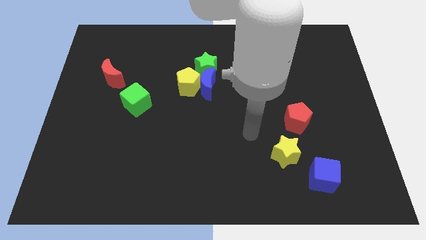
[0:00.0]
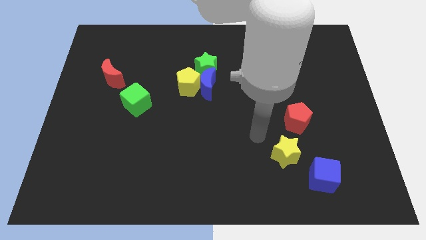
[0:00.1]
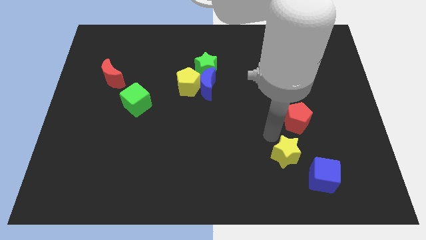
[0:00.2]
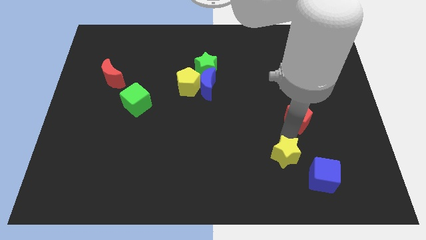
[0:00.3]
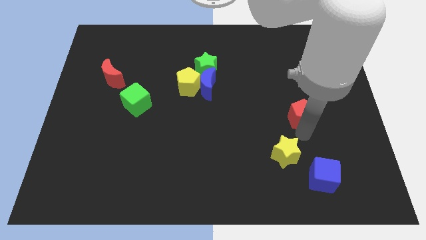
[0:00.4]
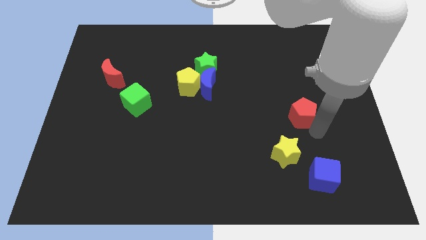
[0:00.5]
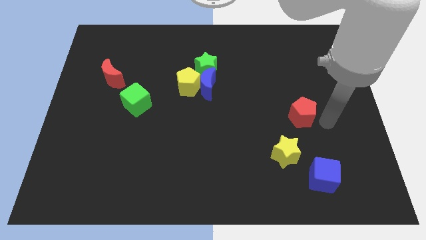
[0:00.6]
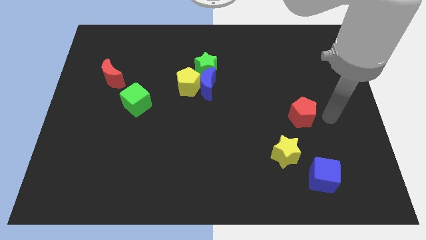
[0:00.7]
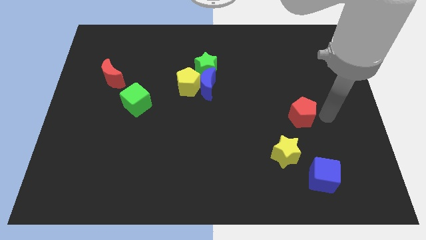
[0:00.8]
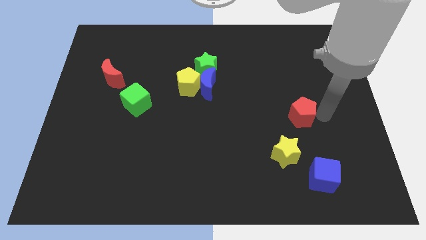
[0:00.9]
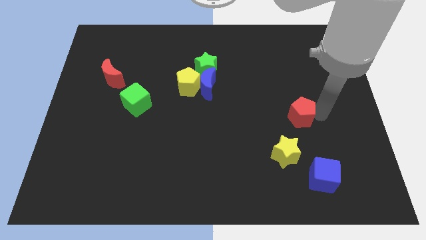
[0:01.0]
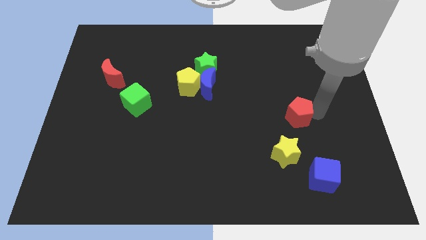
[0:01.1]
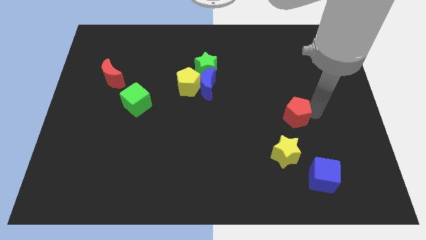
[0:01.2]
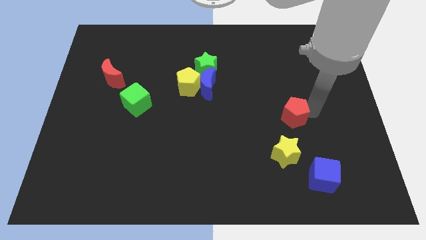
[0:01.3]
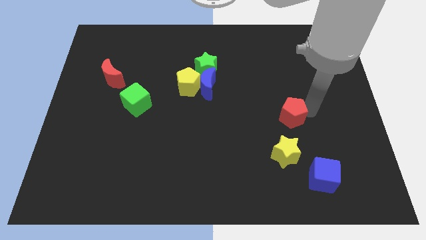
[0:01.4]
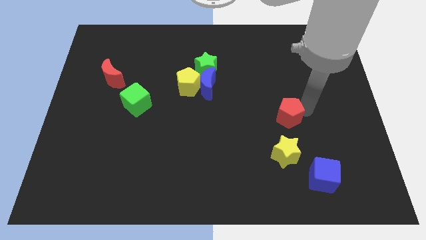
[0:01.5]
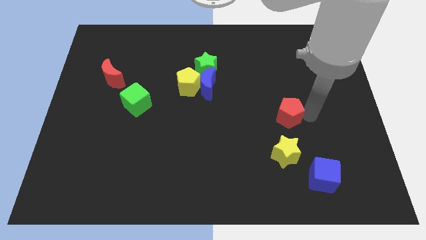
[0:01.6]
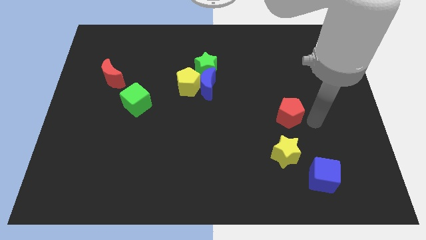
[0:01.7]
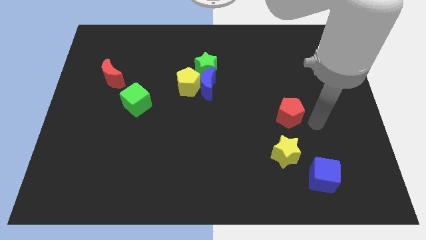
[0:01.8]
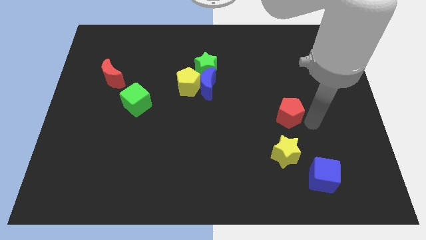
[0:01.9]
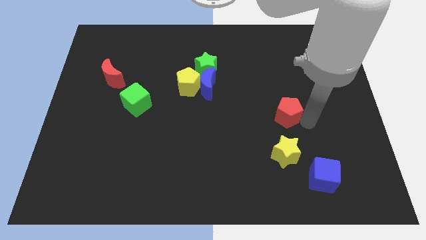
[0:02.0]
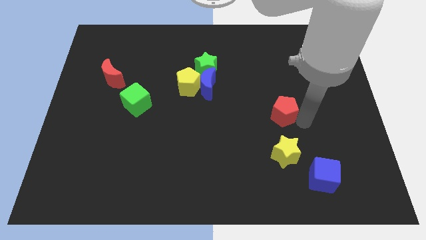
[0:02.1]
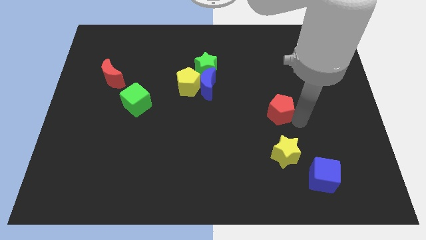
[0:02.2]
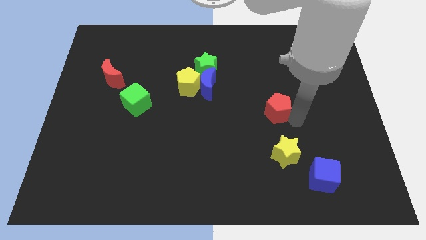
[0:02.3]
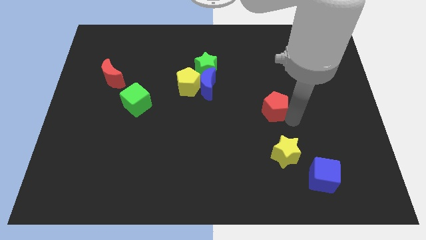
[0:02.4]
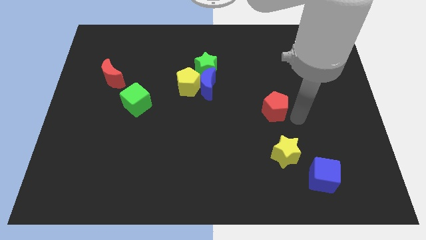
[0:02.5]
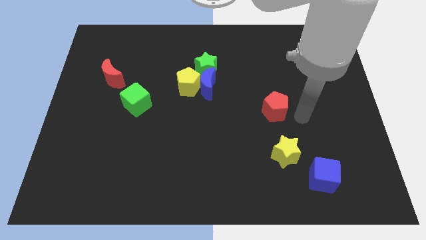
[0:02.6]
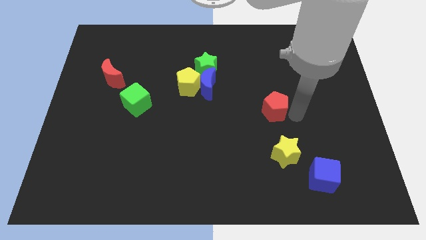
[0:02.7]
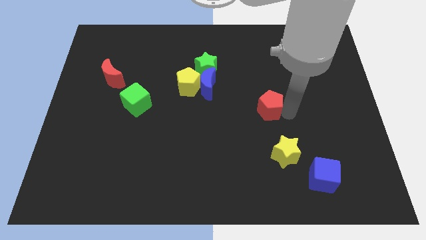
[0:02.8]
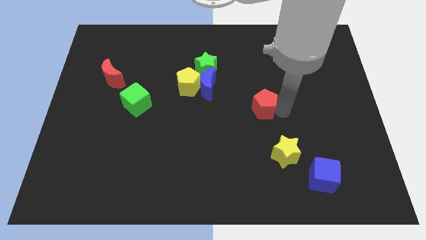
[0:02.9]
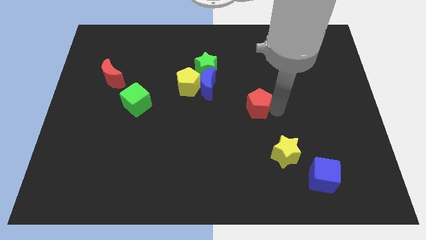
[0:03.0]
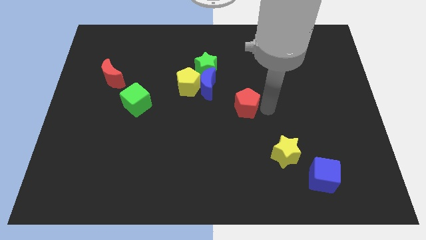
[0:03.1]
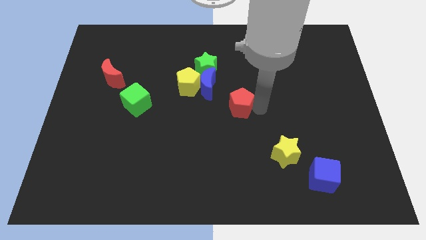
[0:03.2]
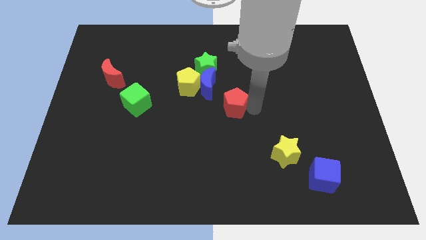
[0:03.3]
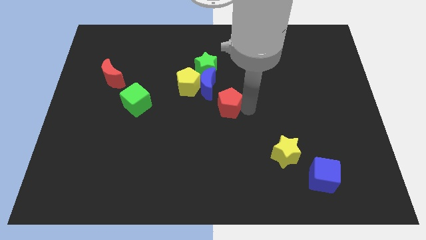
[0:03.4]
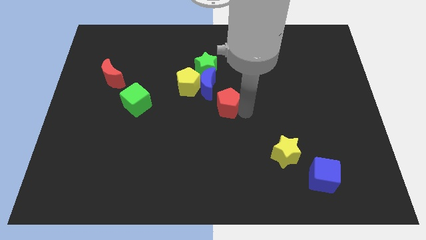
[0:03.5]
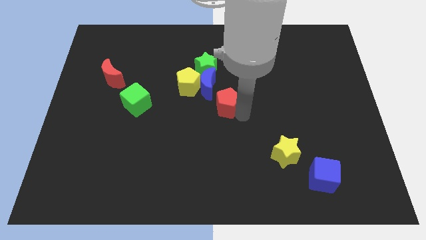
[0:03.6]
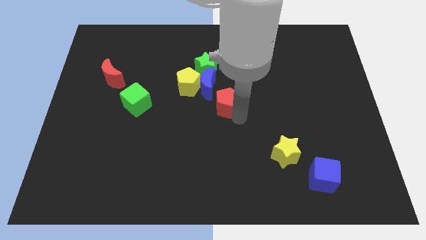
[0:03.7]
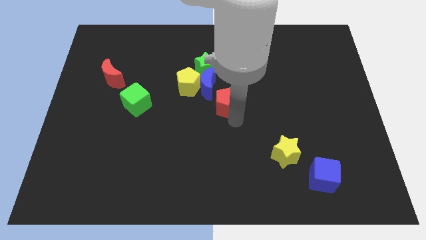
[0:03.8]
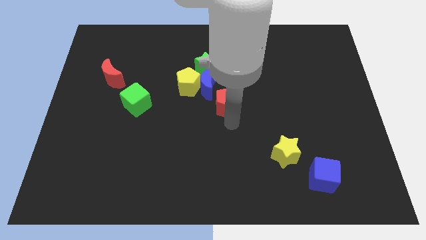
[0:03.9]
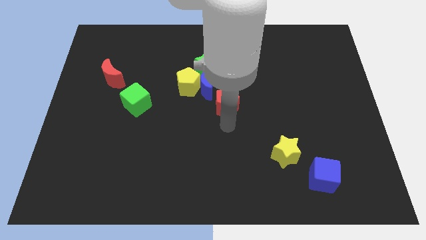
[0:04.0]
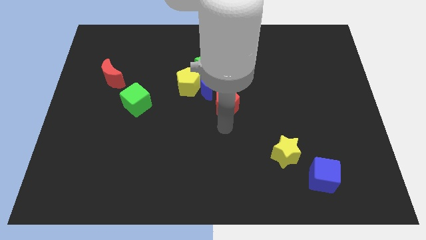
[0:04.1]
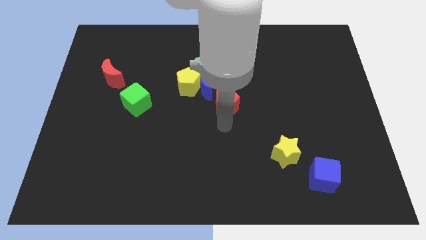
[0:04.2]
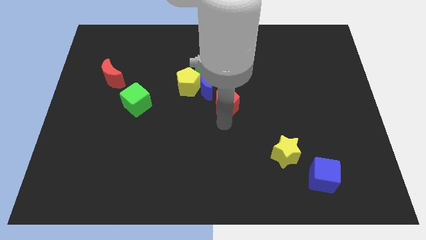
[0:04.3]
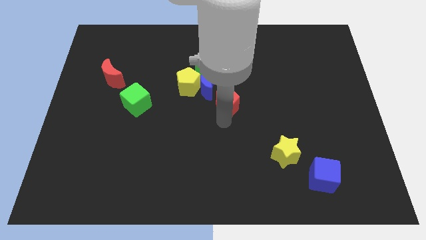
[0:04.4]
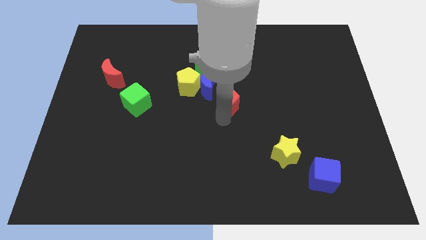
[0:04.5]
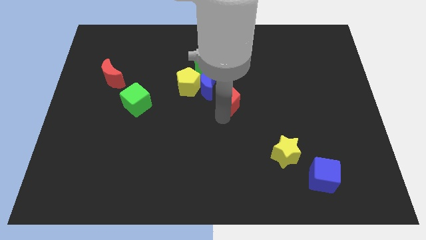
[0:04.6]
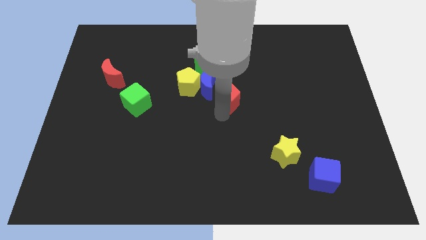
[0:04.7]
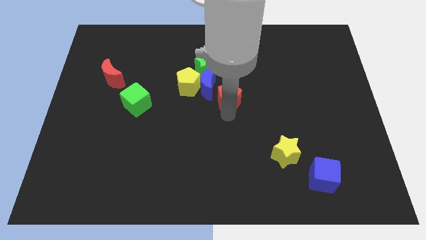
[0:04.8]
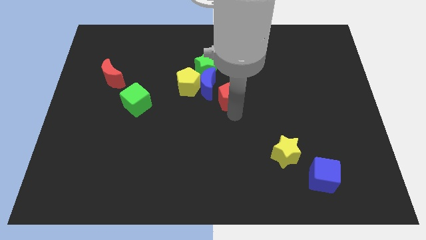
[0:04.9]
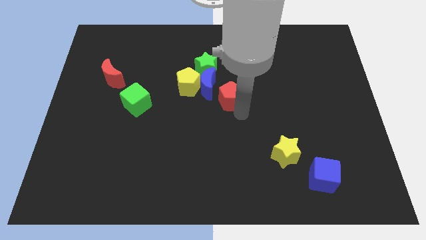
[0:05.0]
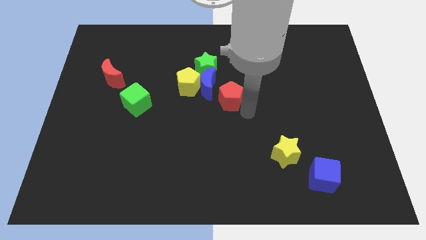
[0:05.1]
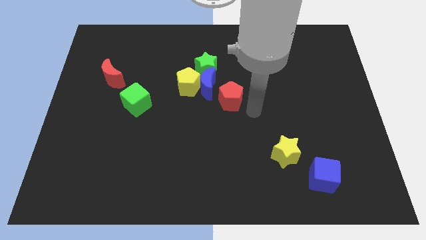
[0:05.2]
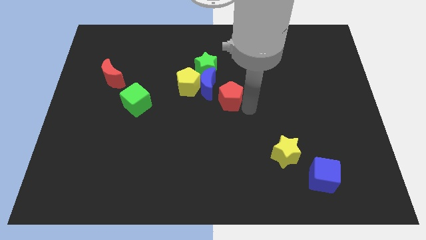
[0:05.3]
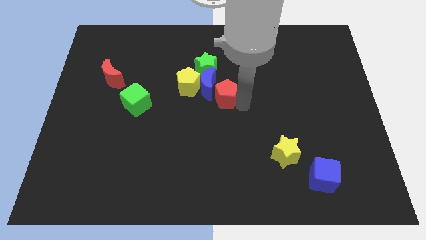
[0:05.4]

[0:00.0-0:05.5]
push the red pentagon towards the blue moon

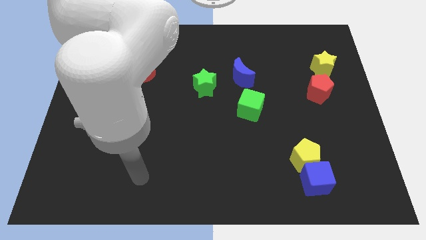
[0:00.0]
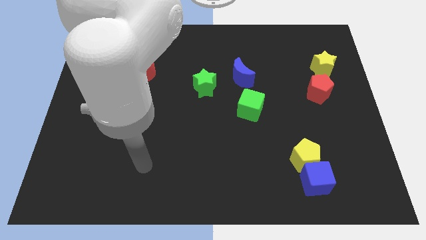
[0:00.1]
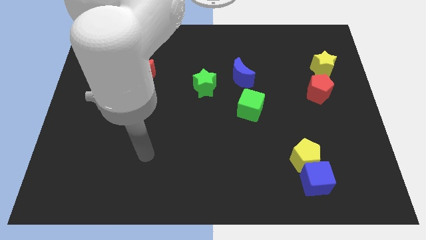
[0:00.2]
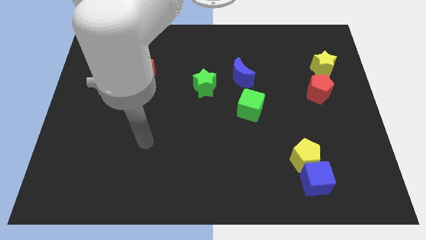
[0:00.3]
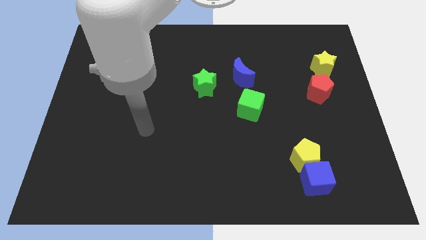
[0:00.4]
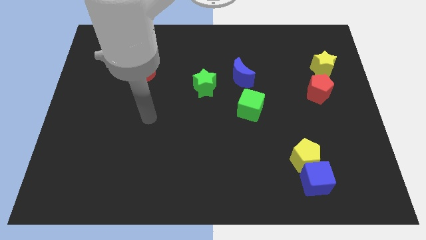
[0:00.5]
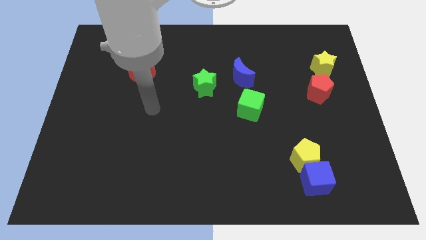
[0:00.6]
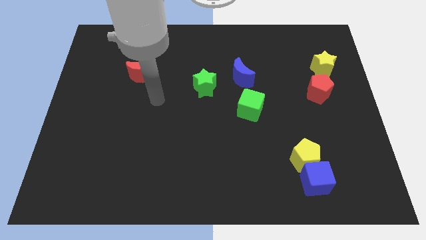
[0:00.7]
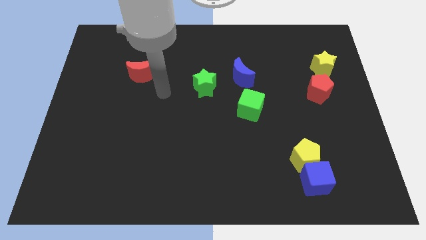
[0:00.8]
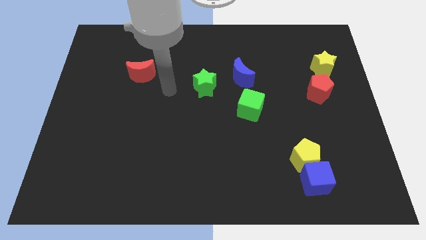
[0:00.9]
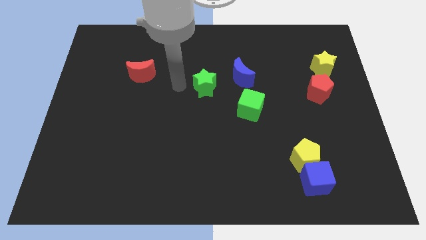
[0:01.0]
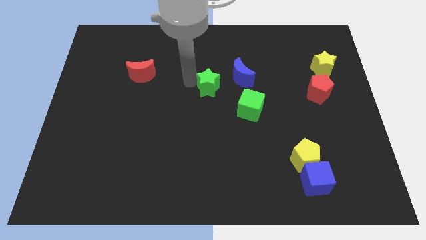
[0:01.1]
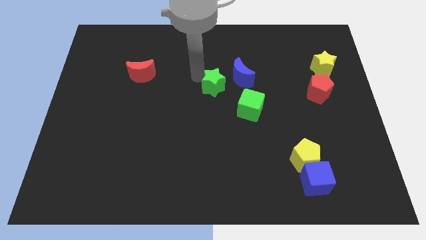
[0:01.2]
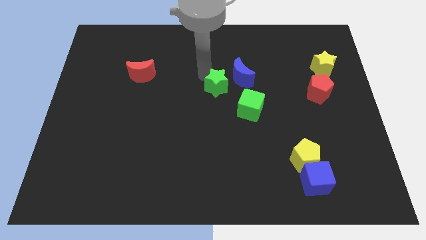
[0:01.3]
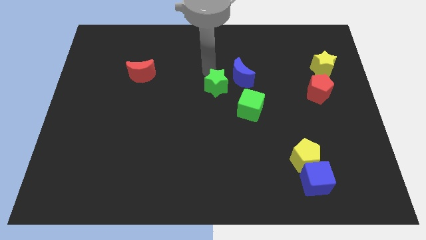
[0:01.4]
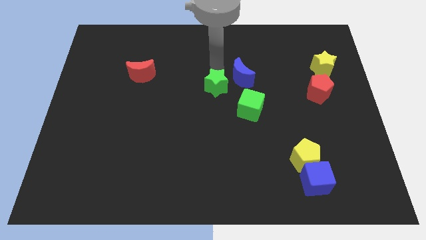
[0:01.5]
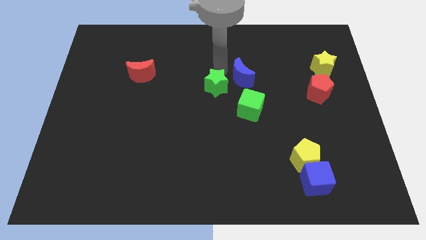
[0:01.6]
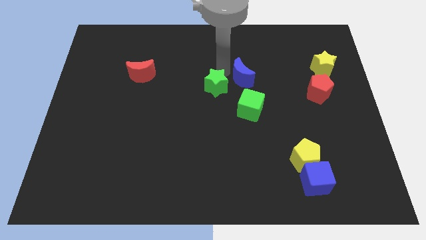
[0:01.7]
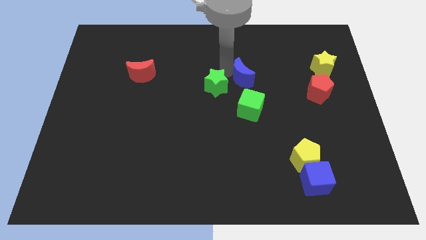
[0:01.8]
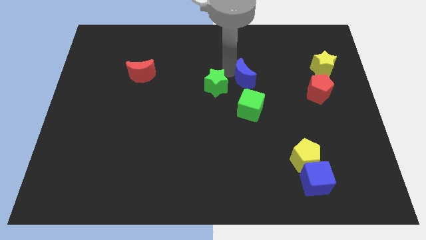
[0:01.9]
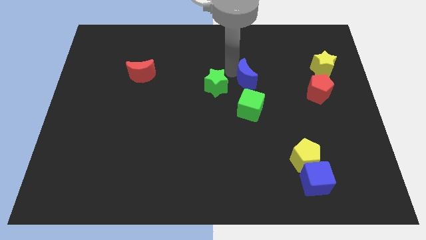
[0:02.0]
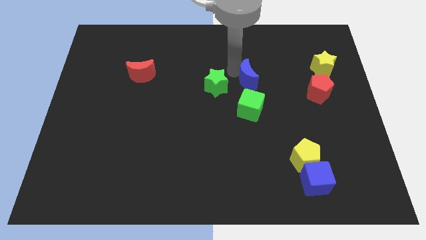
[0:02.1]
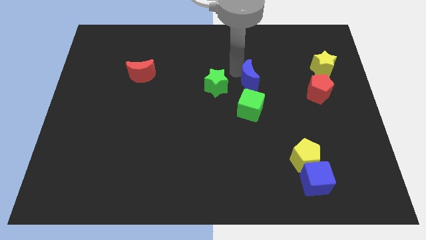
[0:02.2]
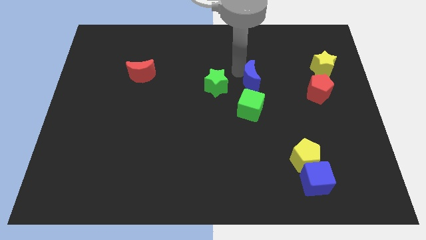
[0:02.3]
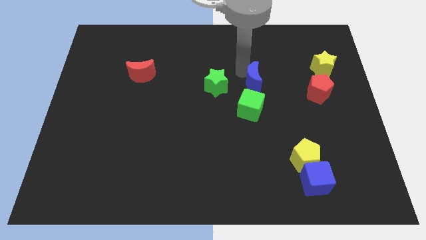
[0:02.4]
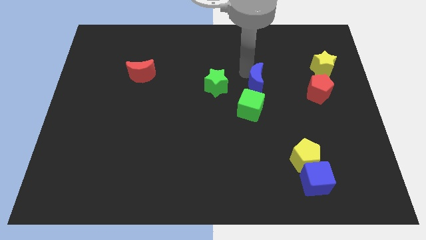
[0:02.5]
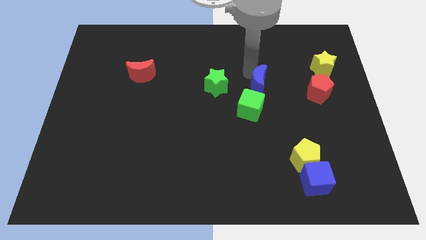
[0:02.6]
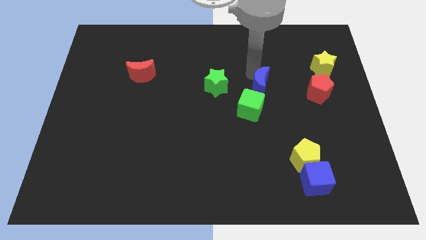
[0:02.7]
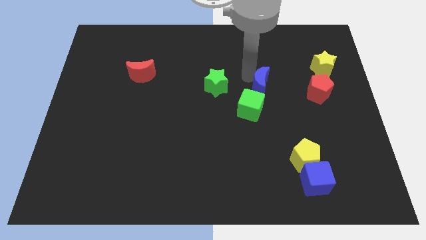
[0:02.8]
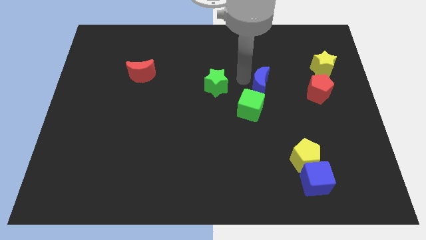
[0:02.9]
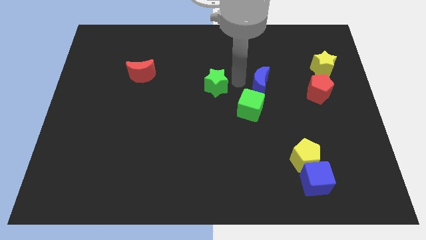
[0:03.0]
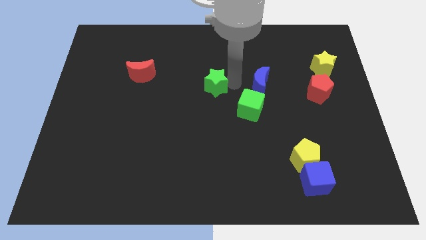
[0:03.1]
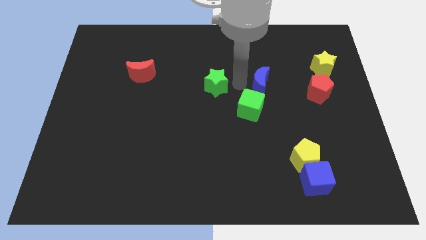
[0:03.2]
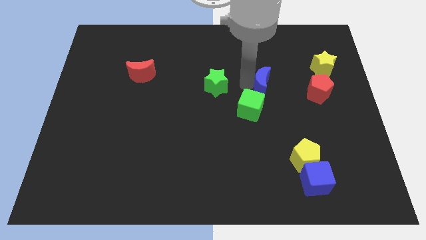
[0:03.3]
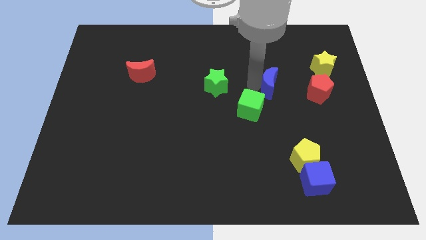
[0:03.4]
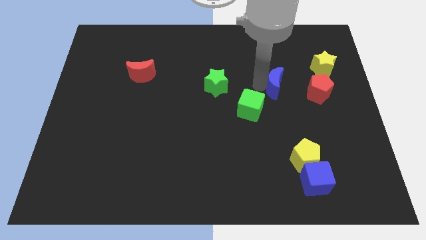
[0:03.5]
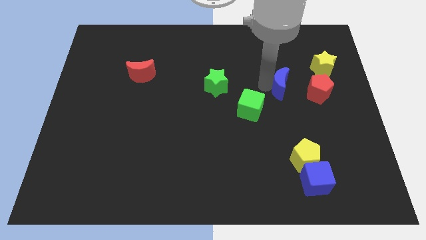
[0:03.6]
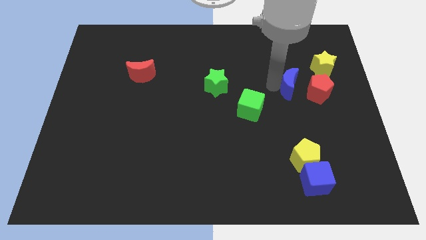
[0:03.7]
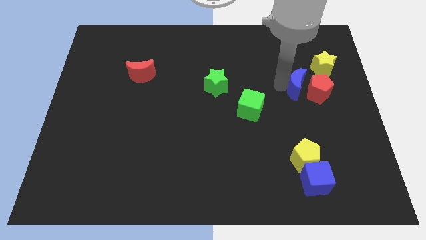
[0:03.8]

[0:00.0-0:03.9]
slide the blue moon towards the red pentagon
